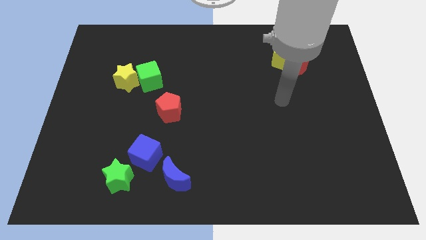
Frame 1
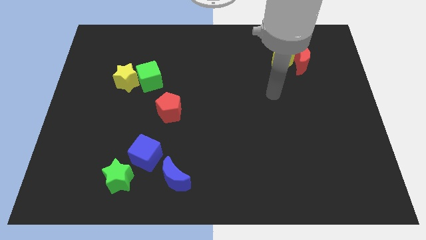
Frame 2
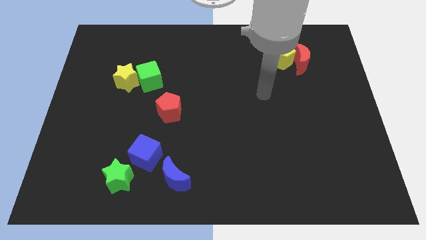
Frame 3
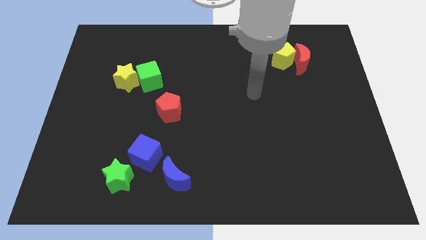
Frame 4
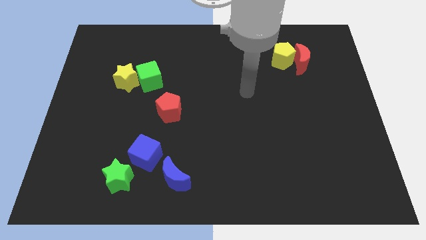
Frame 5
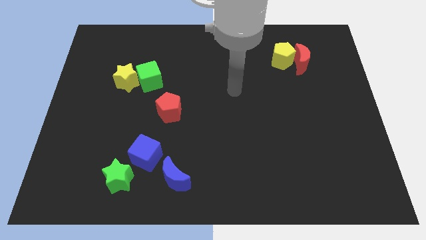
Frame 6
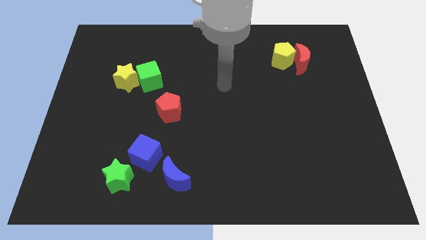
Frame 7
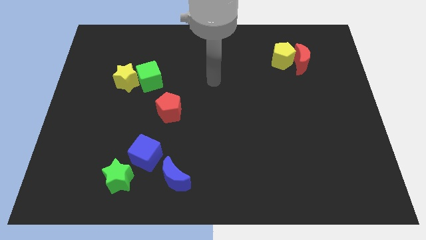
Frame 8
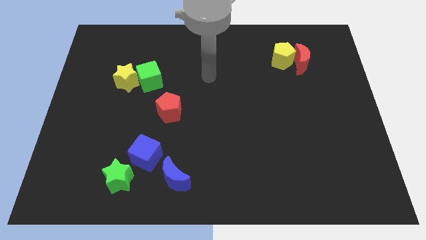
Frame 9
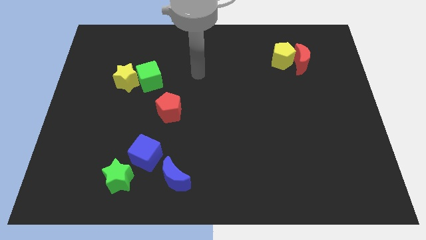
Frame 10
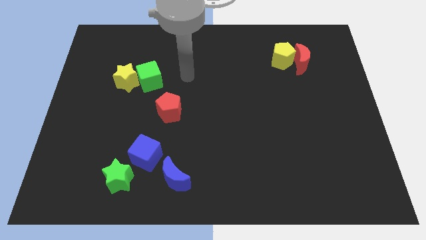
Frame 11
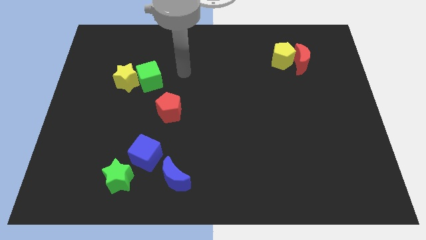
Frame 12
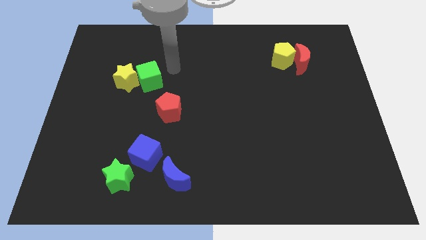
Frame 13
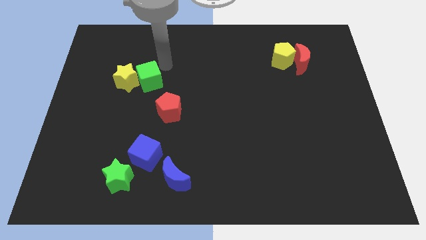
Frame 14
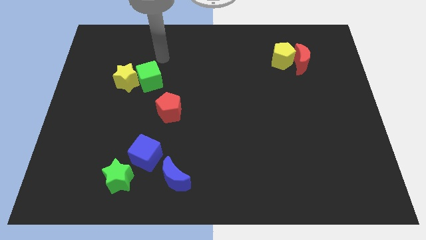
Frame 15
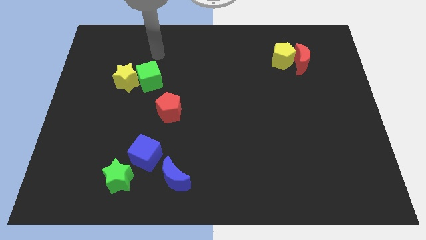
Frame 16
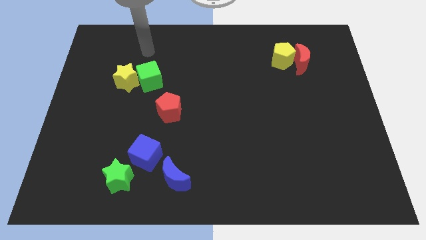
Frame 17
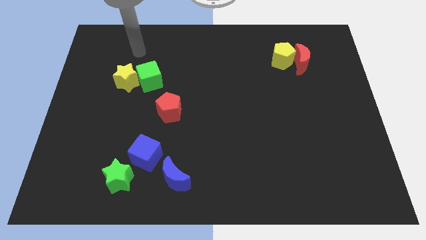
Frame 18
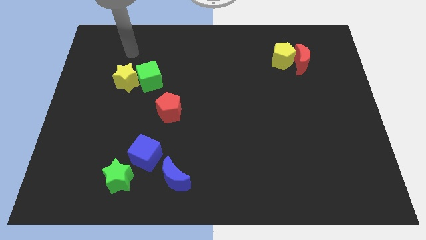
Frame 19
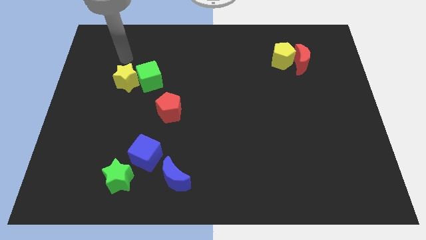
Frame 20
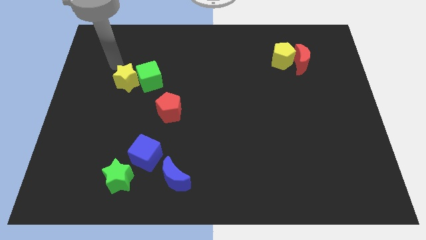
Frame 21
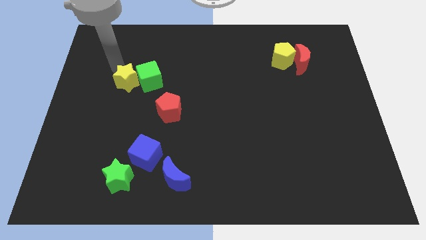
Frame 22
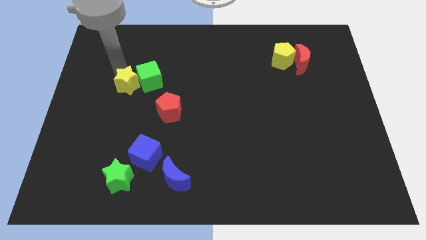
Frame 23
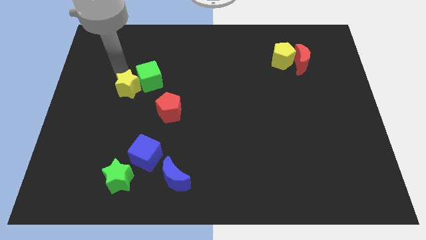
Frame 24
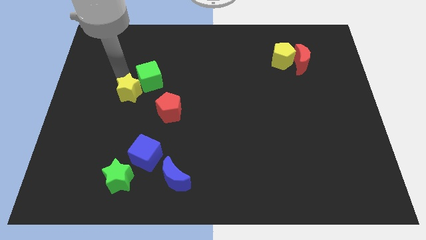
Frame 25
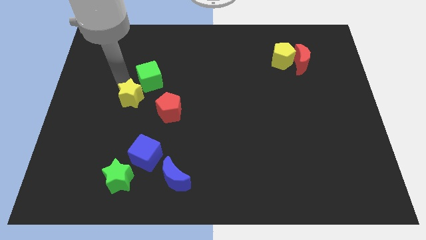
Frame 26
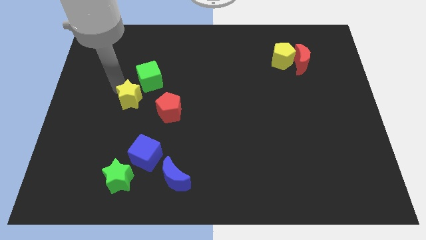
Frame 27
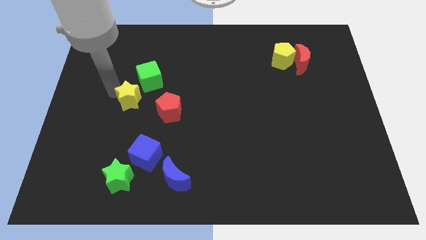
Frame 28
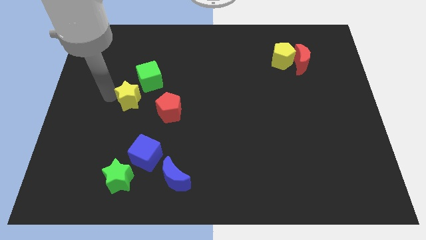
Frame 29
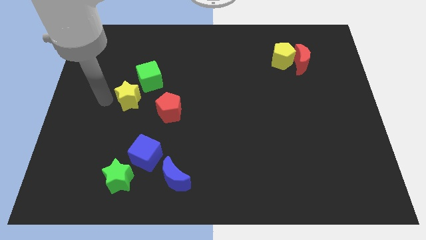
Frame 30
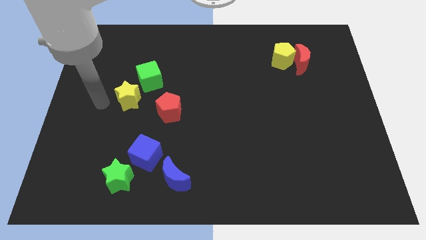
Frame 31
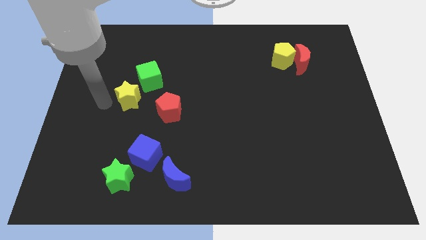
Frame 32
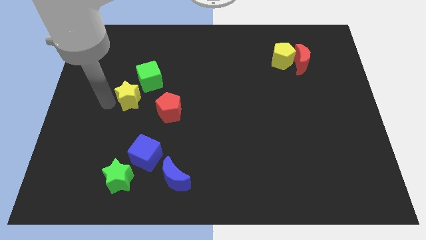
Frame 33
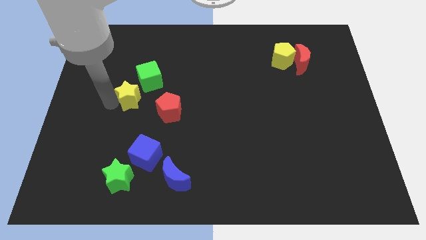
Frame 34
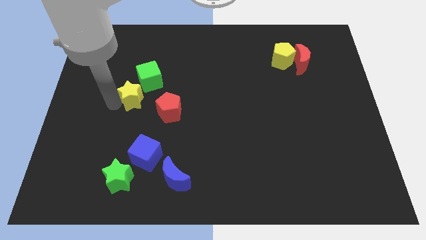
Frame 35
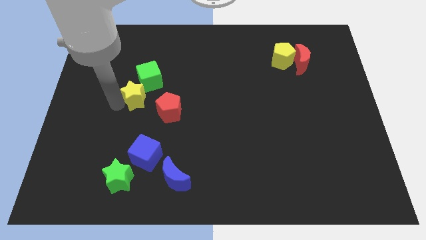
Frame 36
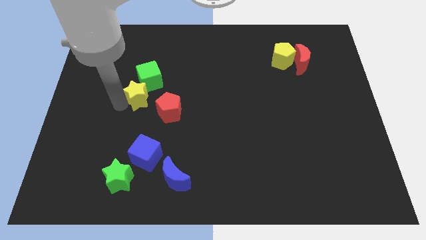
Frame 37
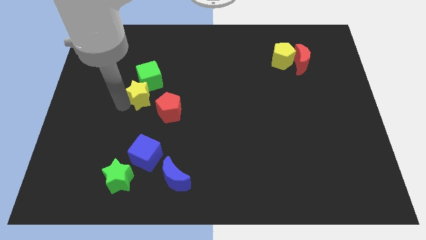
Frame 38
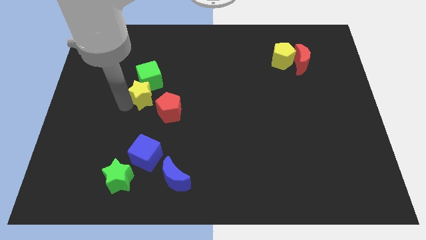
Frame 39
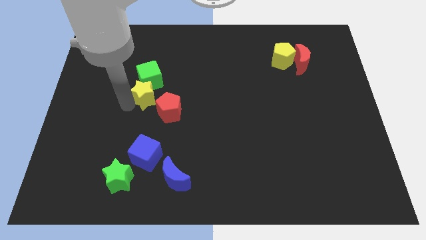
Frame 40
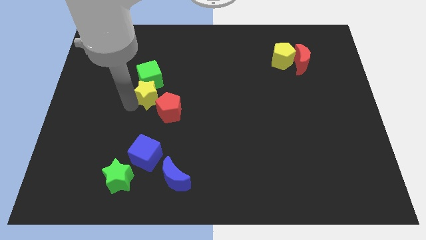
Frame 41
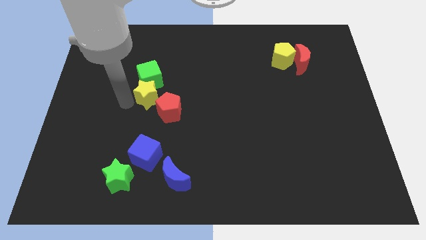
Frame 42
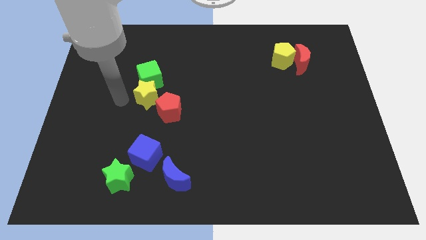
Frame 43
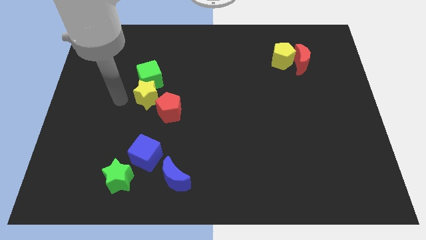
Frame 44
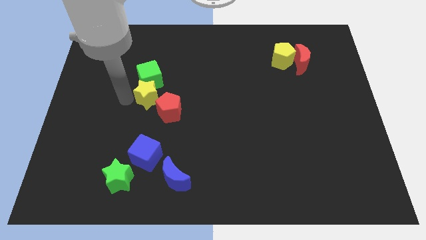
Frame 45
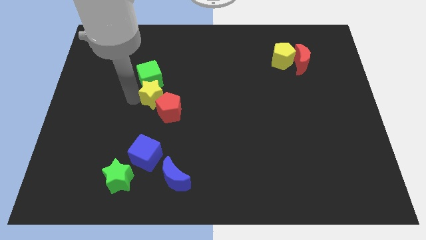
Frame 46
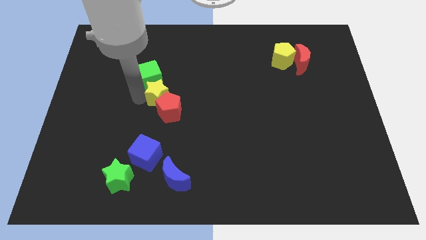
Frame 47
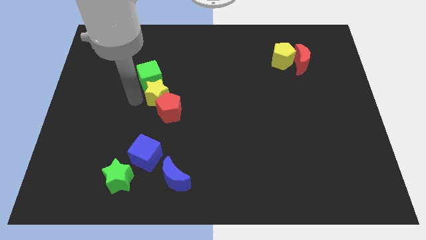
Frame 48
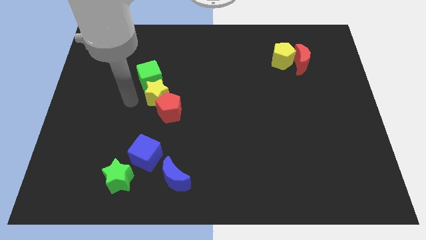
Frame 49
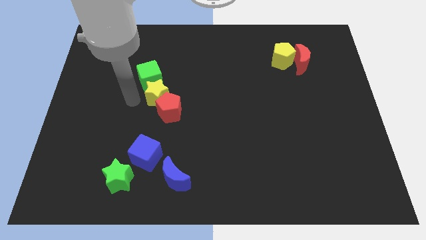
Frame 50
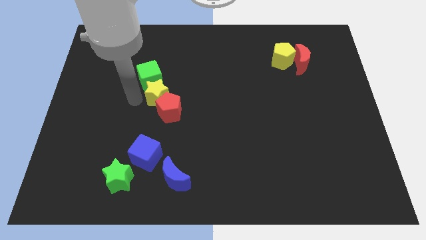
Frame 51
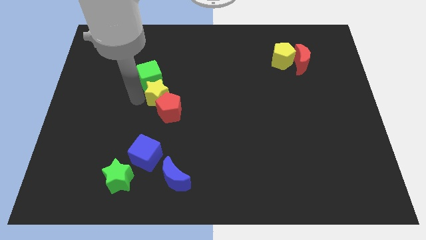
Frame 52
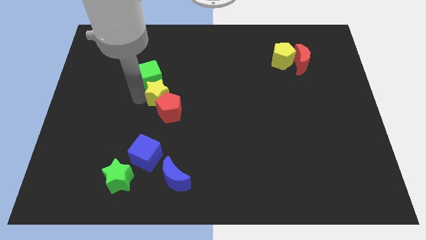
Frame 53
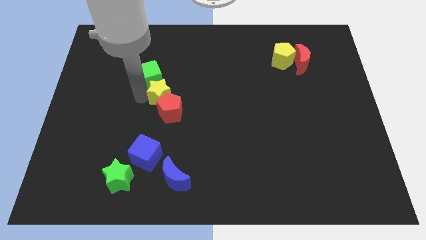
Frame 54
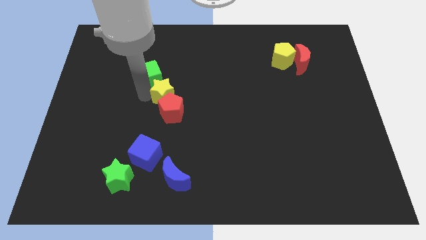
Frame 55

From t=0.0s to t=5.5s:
move the yellow star to the center of the board
